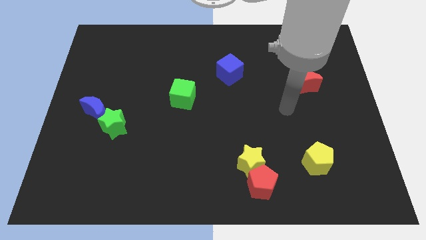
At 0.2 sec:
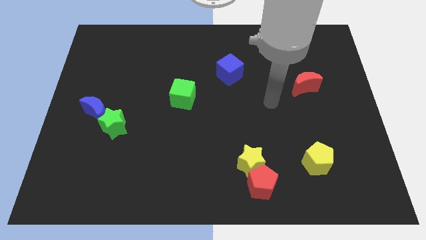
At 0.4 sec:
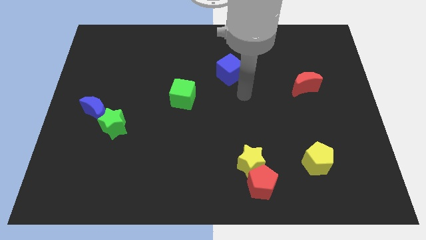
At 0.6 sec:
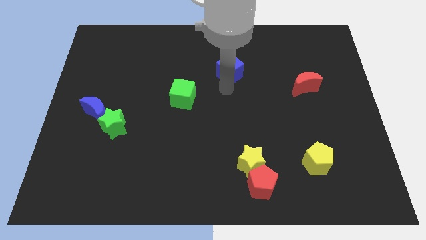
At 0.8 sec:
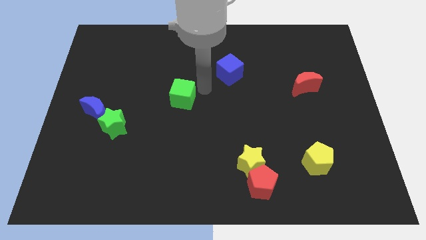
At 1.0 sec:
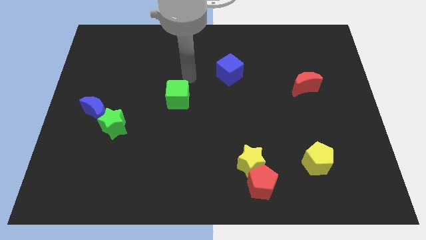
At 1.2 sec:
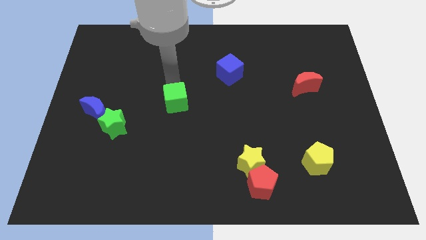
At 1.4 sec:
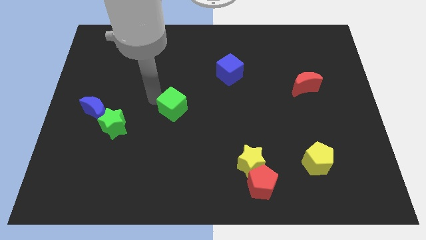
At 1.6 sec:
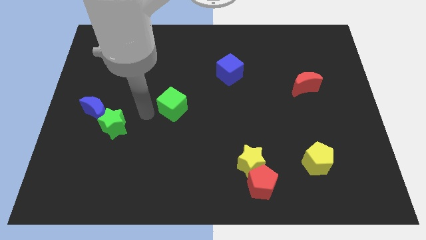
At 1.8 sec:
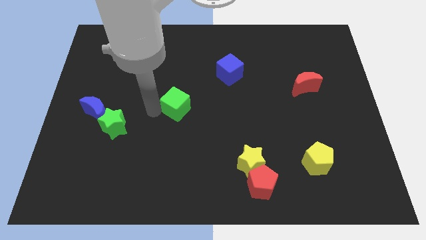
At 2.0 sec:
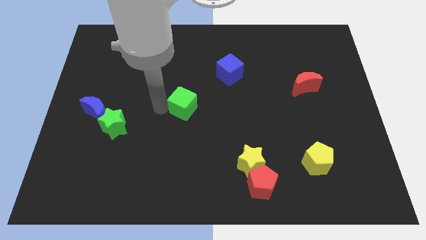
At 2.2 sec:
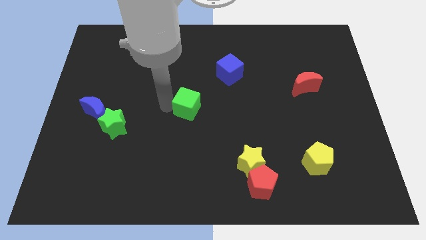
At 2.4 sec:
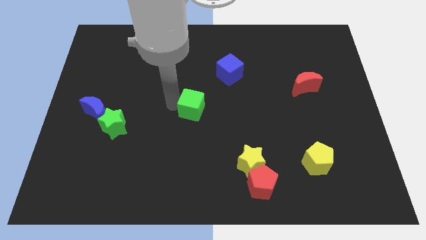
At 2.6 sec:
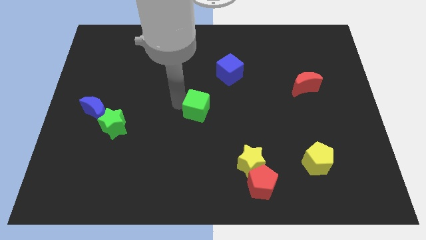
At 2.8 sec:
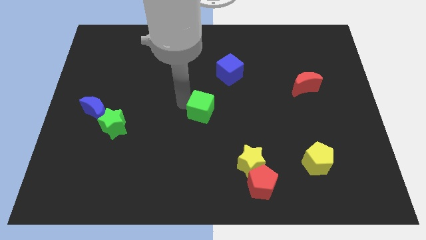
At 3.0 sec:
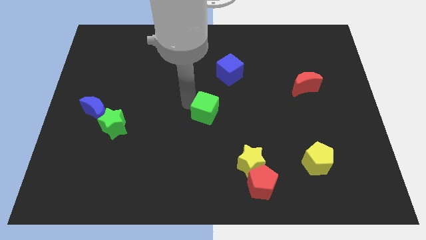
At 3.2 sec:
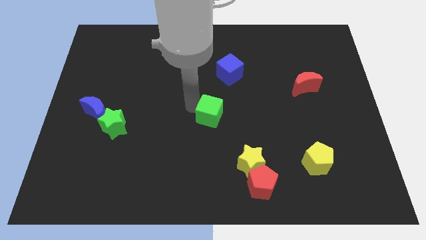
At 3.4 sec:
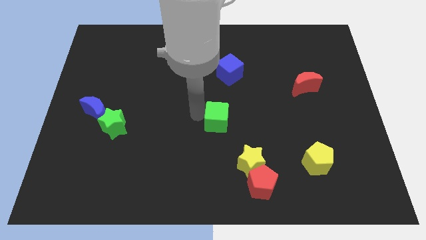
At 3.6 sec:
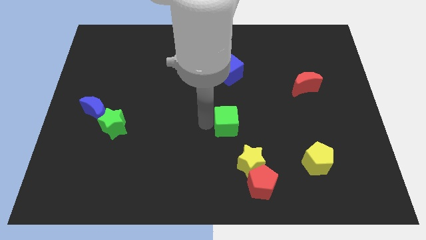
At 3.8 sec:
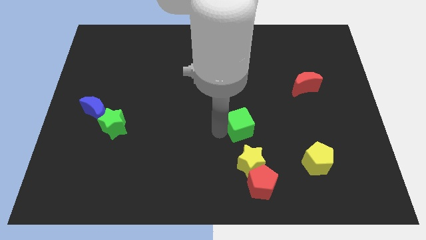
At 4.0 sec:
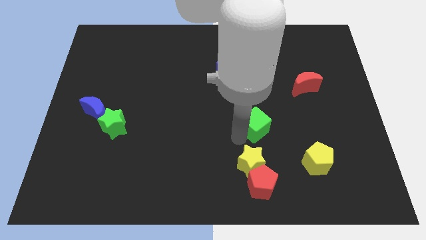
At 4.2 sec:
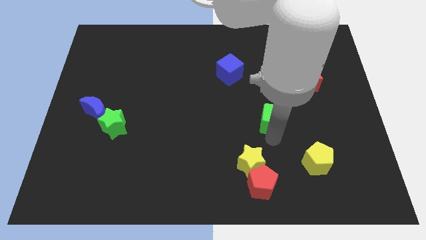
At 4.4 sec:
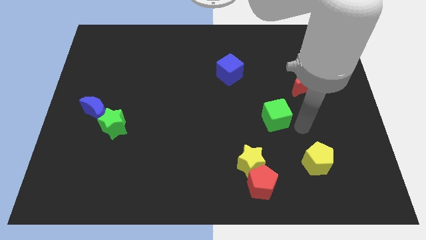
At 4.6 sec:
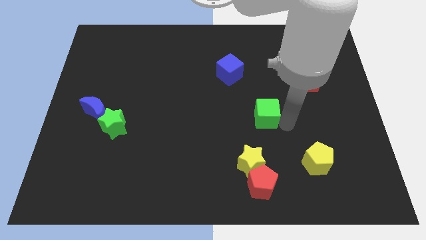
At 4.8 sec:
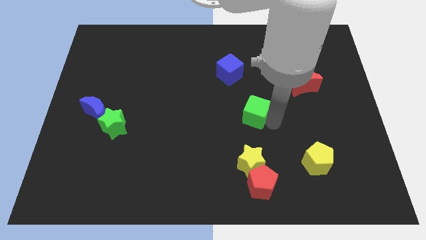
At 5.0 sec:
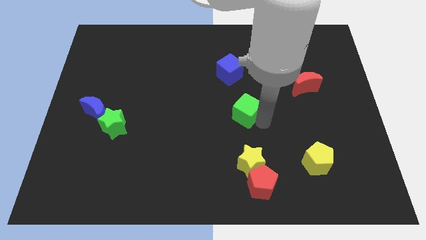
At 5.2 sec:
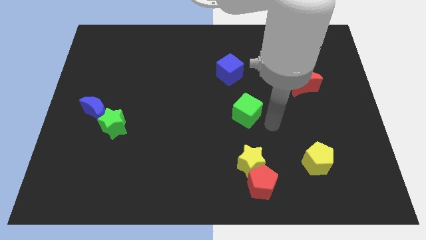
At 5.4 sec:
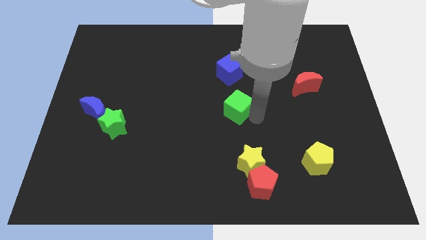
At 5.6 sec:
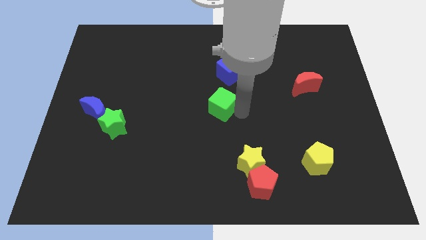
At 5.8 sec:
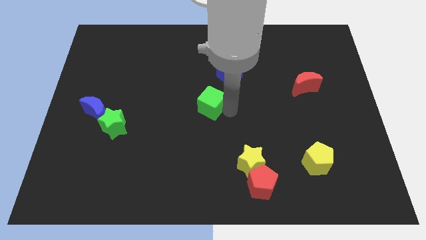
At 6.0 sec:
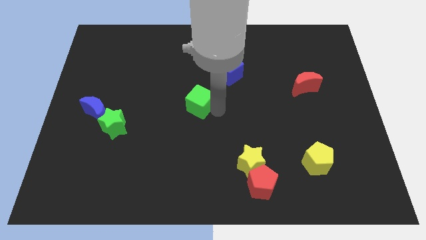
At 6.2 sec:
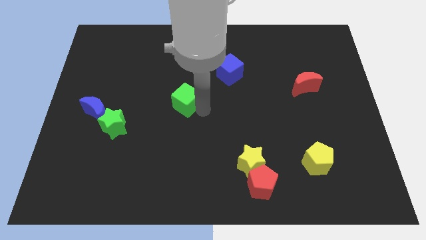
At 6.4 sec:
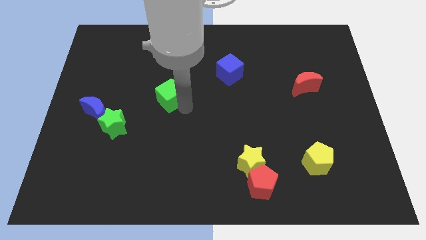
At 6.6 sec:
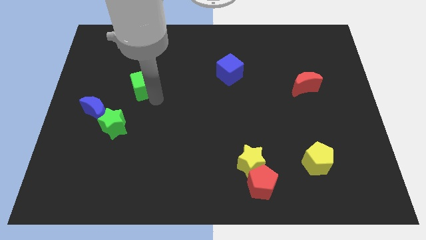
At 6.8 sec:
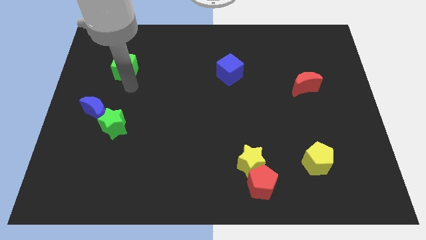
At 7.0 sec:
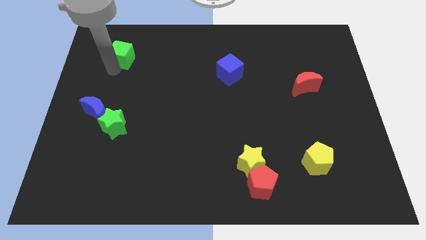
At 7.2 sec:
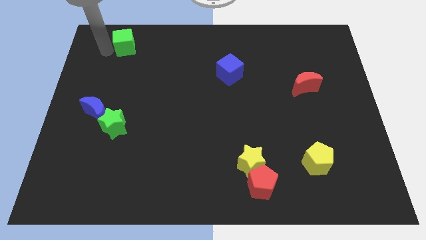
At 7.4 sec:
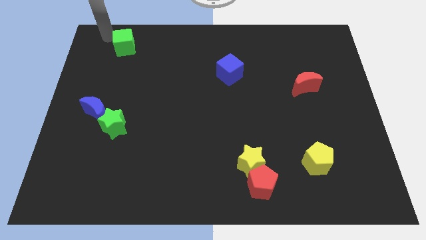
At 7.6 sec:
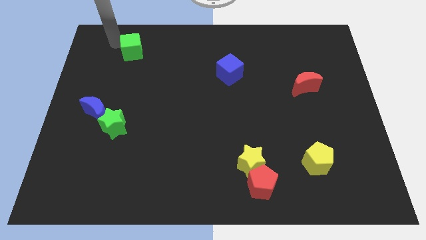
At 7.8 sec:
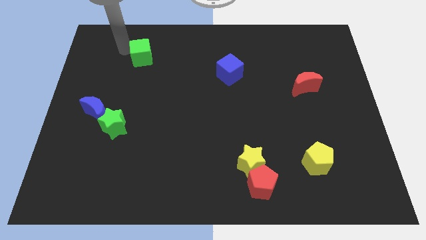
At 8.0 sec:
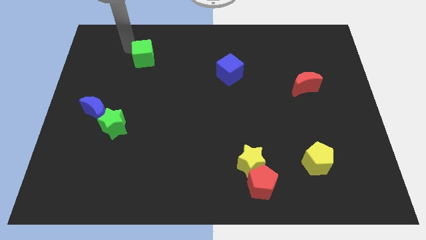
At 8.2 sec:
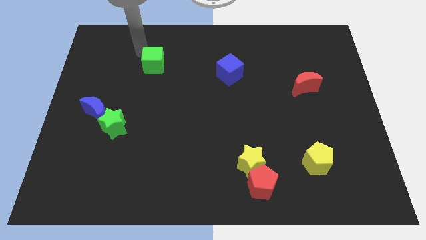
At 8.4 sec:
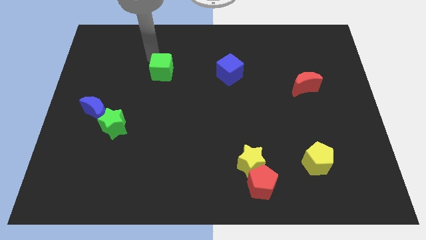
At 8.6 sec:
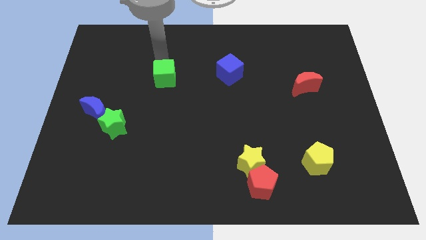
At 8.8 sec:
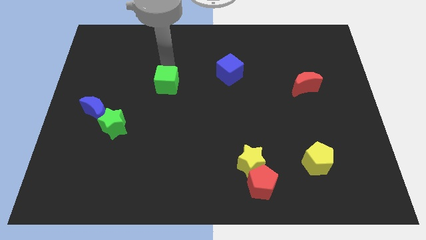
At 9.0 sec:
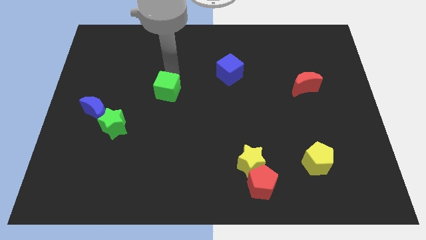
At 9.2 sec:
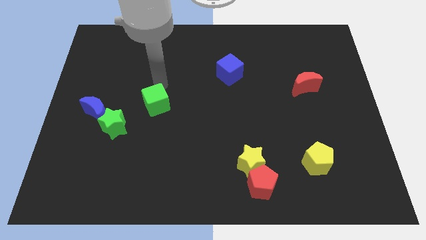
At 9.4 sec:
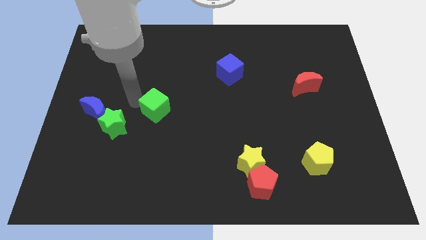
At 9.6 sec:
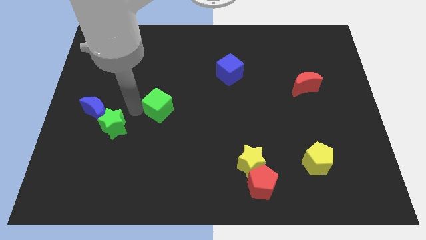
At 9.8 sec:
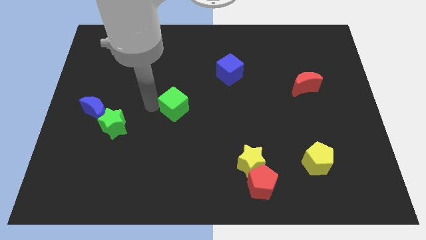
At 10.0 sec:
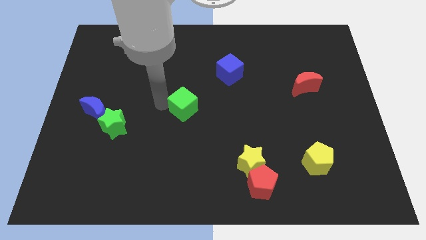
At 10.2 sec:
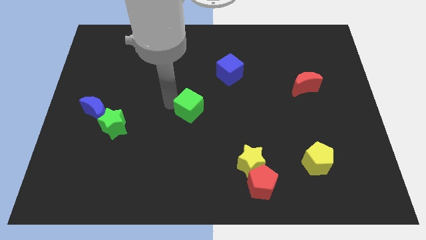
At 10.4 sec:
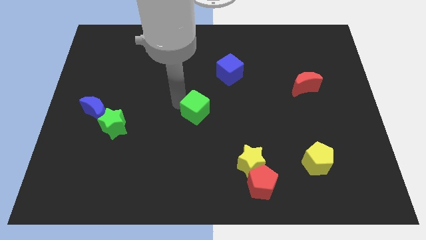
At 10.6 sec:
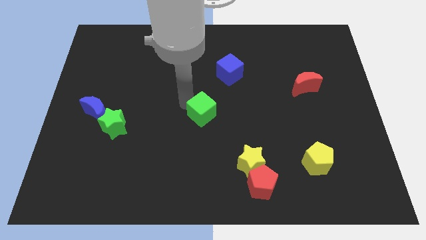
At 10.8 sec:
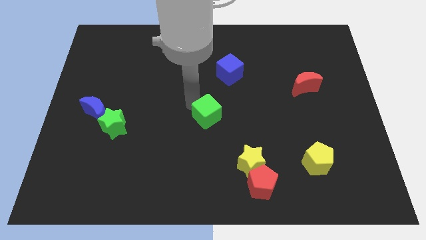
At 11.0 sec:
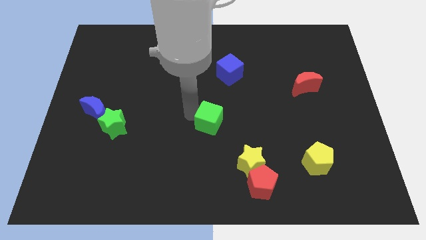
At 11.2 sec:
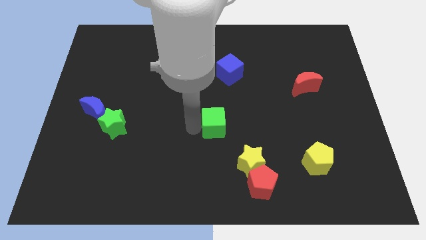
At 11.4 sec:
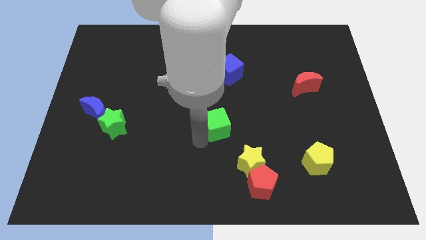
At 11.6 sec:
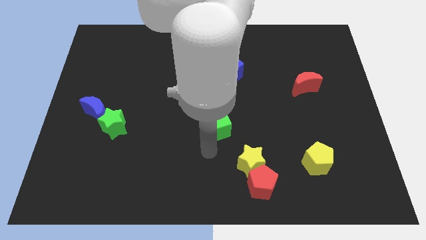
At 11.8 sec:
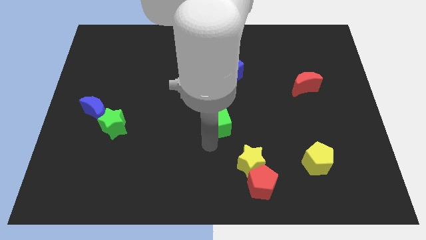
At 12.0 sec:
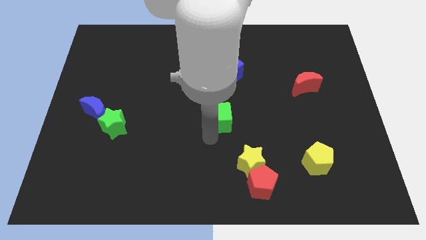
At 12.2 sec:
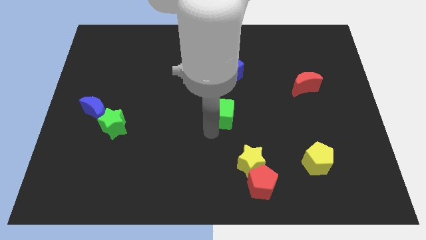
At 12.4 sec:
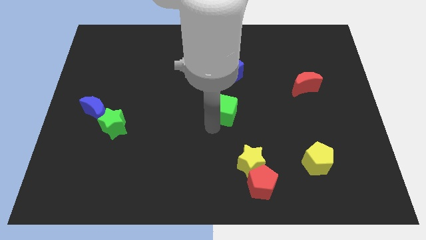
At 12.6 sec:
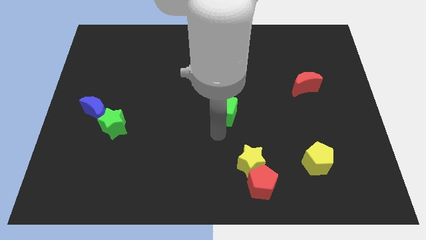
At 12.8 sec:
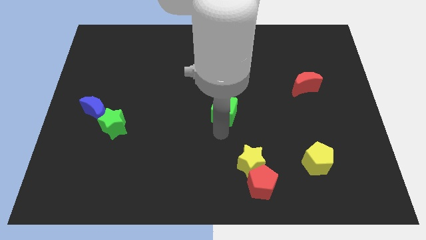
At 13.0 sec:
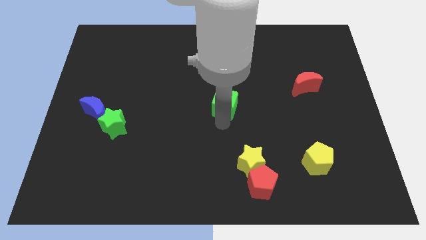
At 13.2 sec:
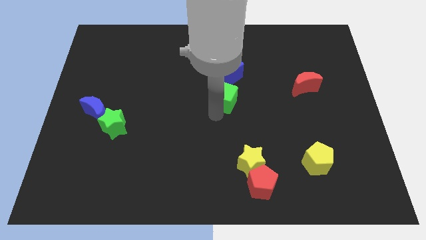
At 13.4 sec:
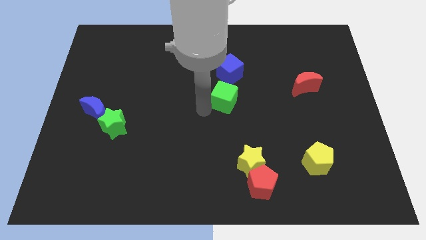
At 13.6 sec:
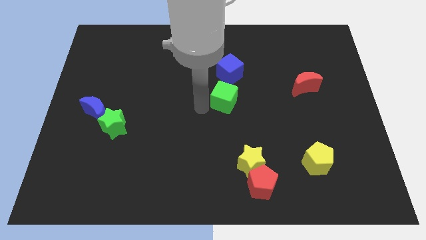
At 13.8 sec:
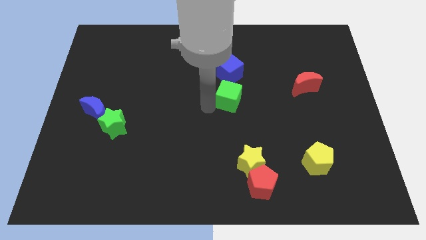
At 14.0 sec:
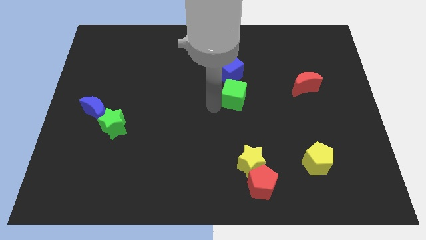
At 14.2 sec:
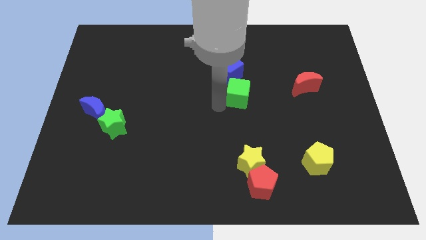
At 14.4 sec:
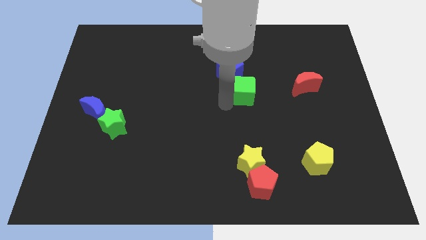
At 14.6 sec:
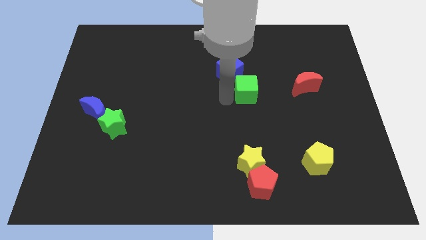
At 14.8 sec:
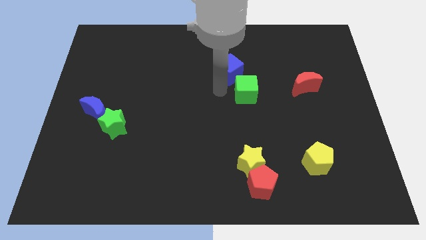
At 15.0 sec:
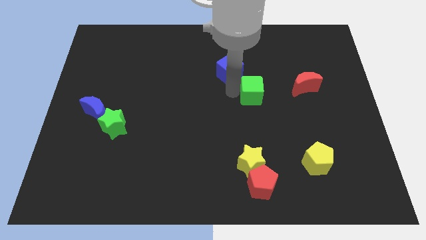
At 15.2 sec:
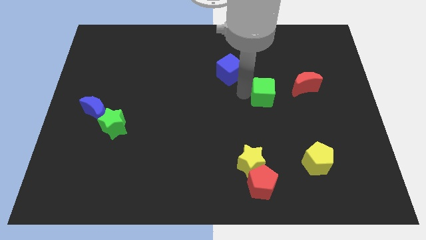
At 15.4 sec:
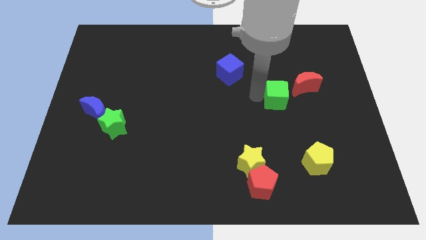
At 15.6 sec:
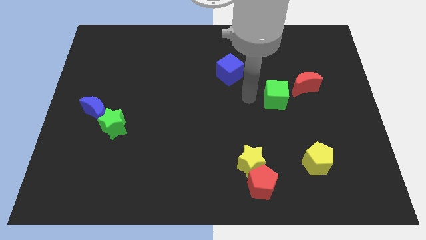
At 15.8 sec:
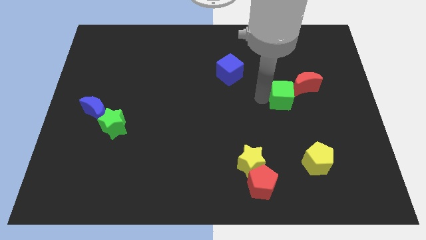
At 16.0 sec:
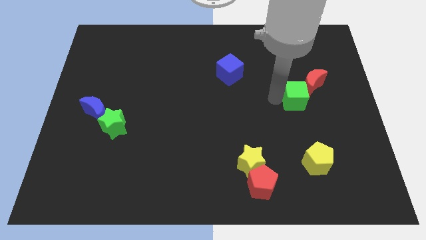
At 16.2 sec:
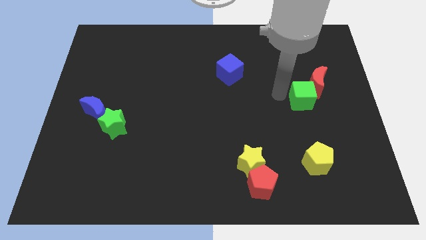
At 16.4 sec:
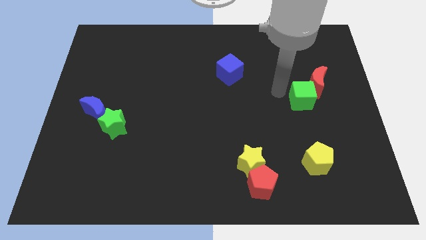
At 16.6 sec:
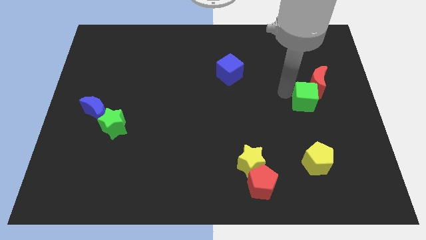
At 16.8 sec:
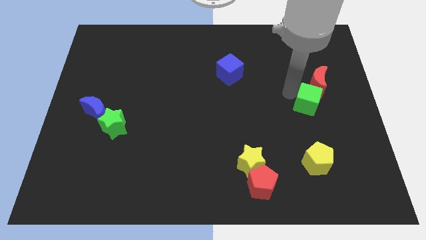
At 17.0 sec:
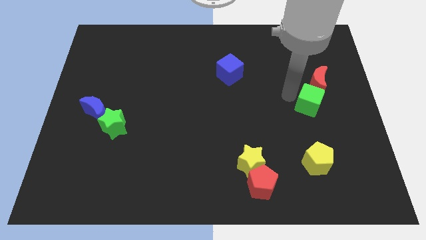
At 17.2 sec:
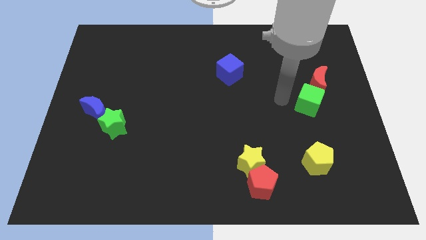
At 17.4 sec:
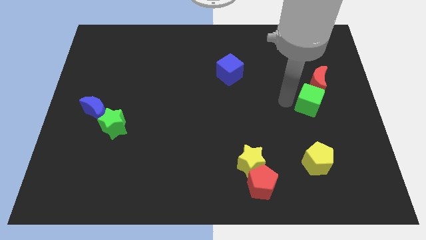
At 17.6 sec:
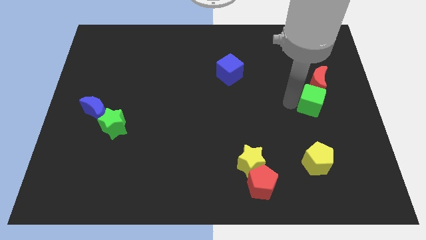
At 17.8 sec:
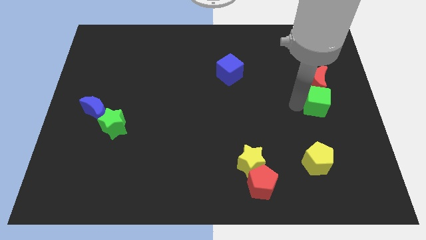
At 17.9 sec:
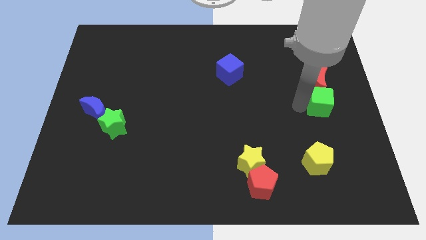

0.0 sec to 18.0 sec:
move the green cube to the right side
